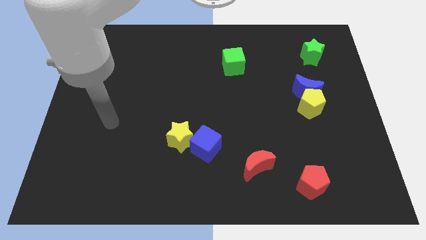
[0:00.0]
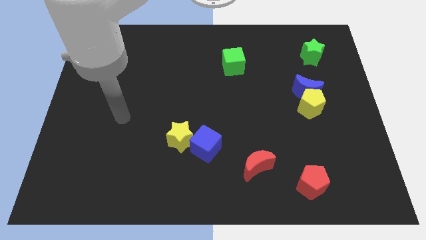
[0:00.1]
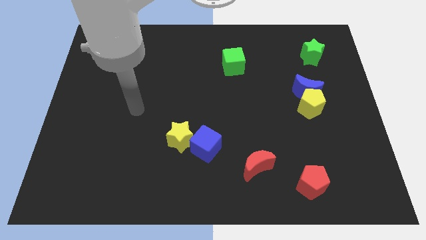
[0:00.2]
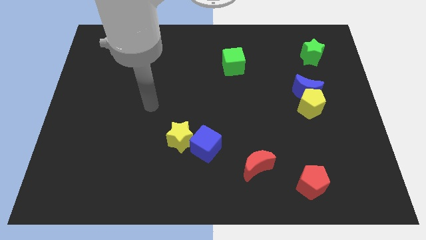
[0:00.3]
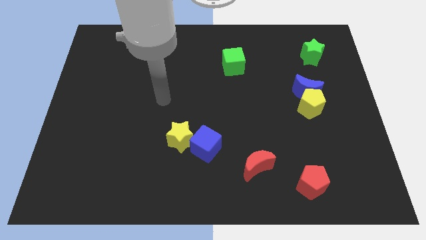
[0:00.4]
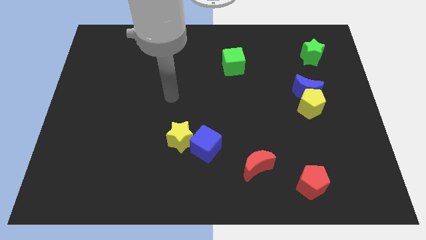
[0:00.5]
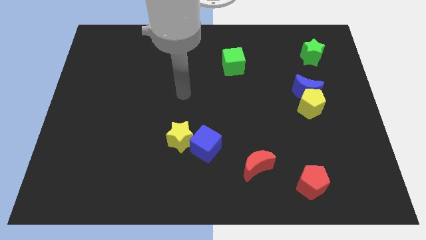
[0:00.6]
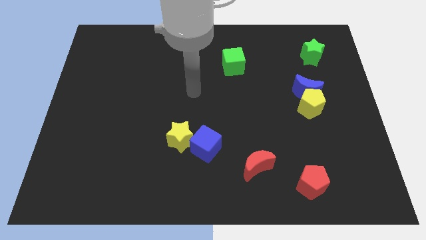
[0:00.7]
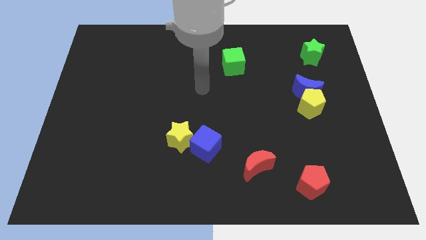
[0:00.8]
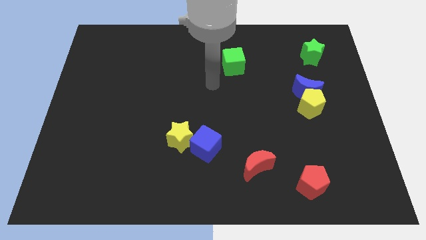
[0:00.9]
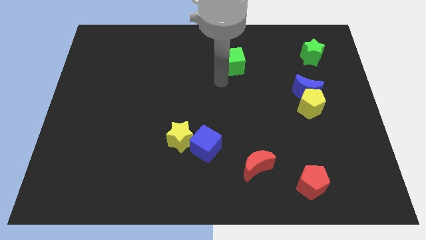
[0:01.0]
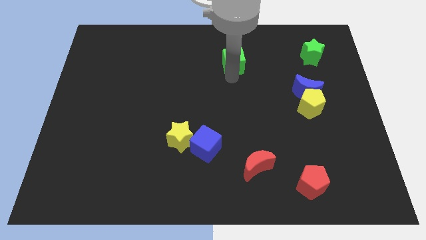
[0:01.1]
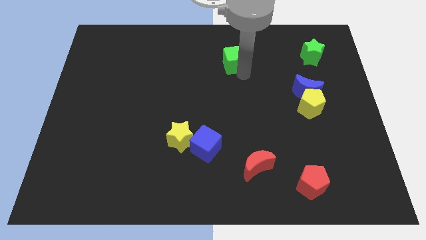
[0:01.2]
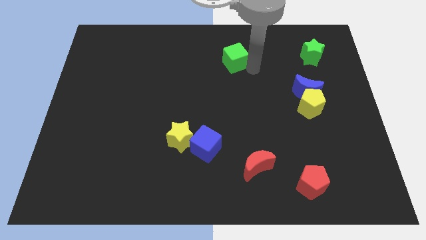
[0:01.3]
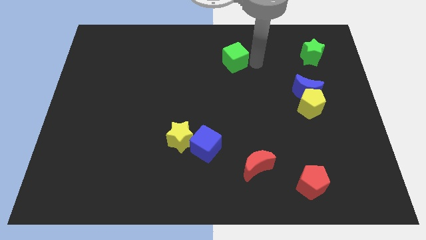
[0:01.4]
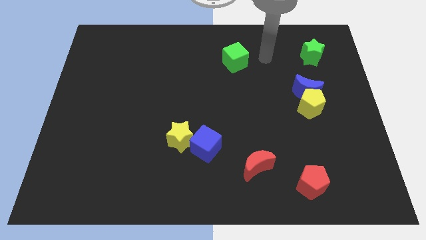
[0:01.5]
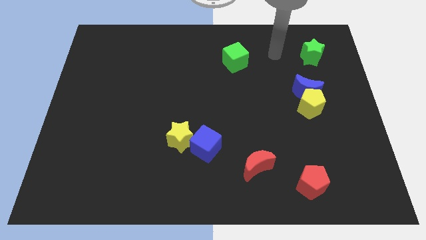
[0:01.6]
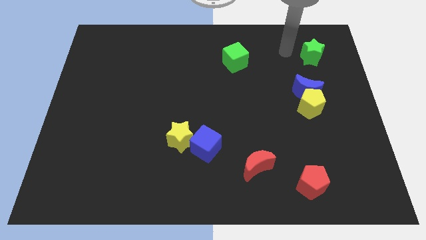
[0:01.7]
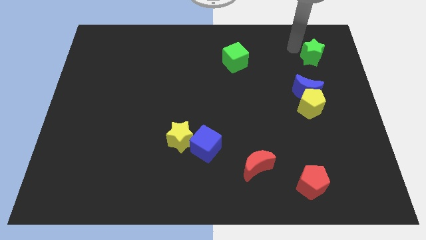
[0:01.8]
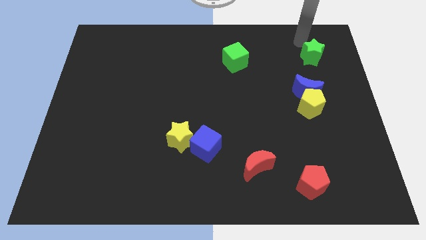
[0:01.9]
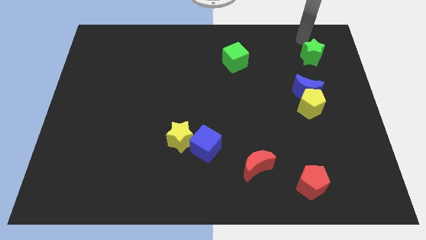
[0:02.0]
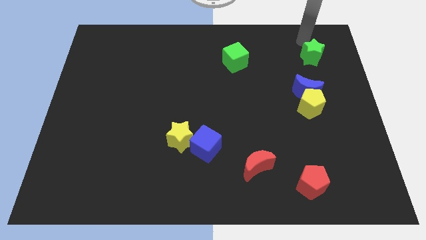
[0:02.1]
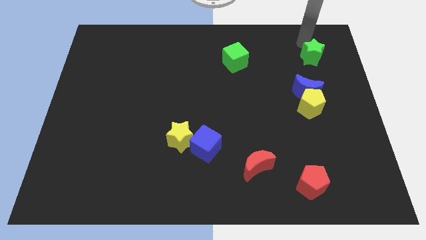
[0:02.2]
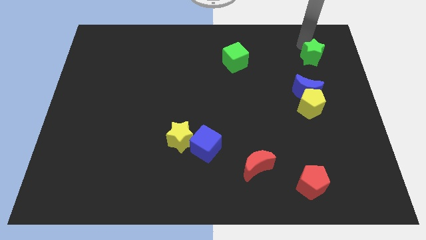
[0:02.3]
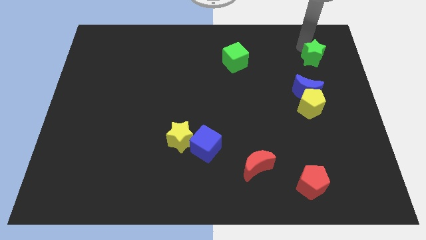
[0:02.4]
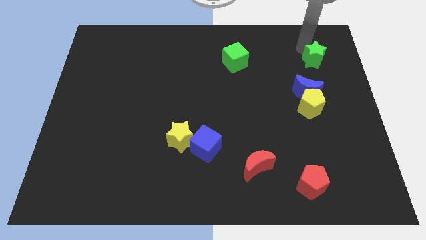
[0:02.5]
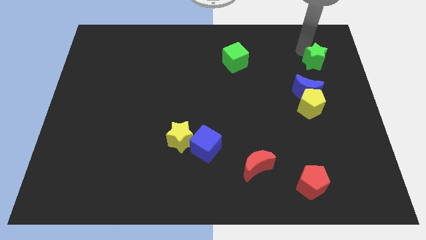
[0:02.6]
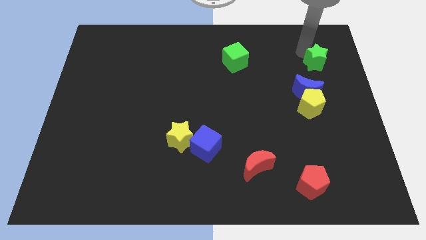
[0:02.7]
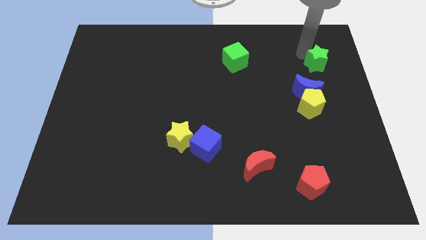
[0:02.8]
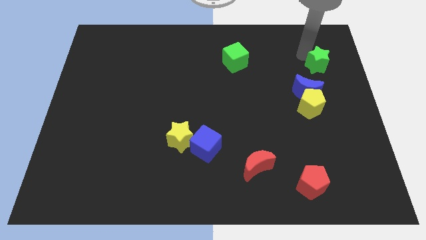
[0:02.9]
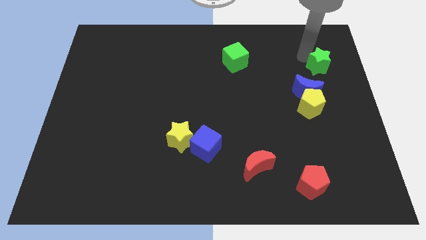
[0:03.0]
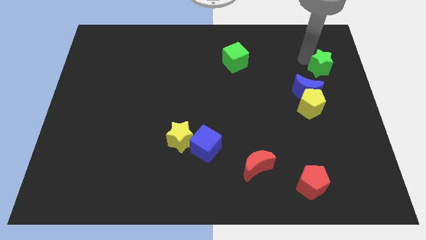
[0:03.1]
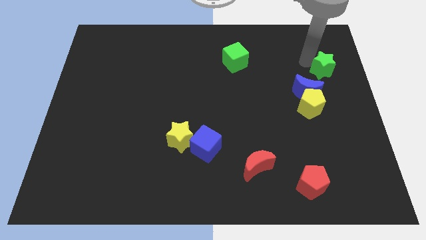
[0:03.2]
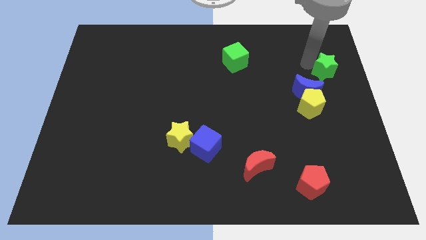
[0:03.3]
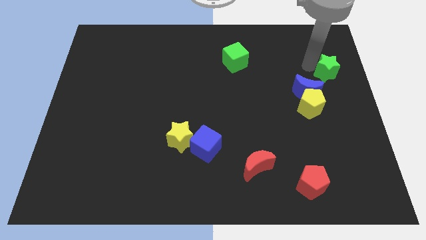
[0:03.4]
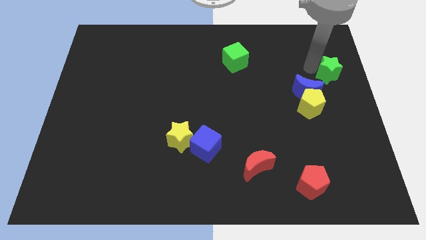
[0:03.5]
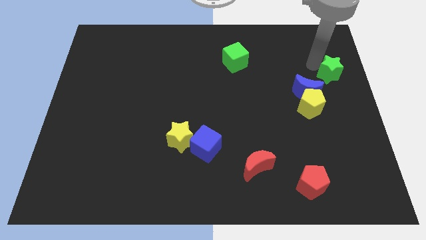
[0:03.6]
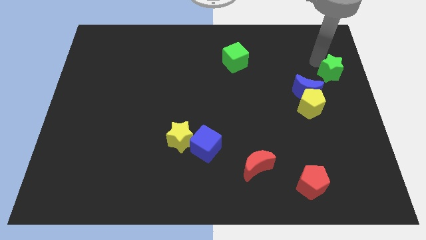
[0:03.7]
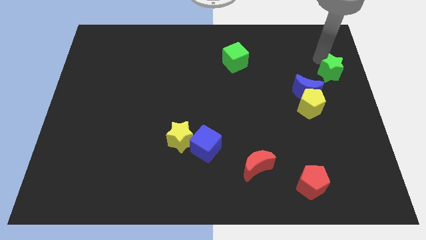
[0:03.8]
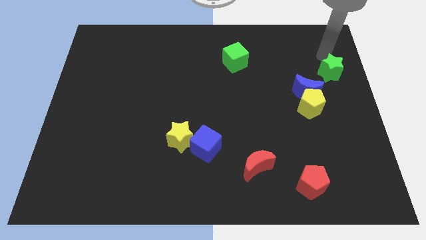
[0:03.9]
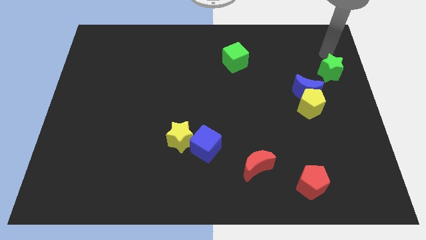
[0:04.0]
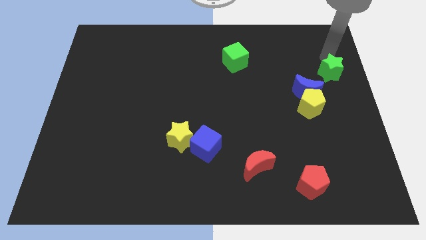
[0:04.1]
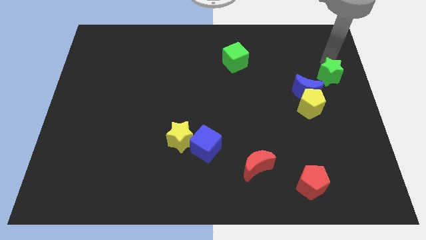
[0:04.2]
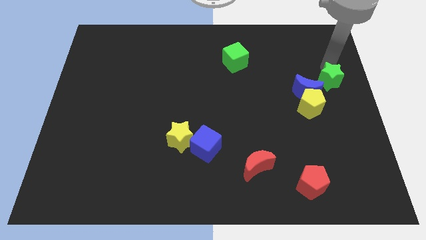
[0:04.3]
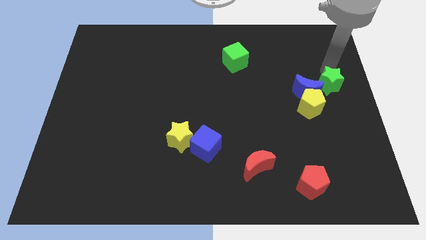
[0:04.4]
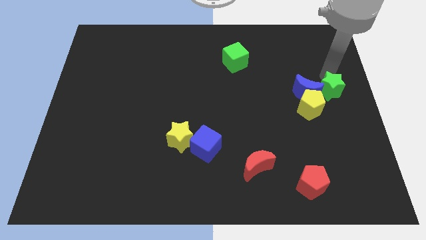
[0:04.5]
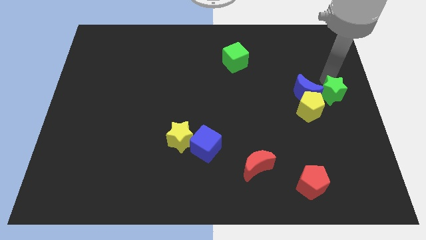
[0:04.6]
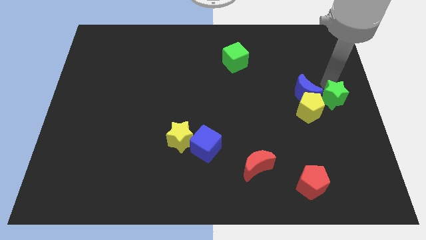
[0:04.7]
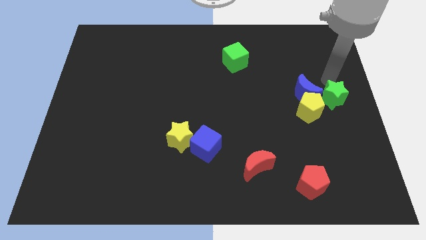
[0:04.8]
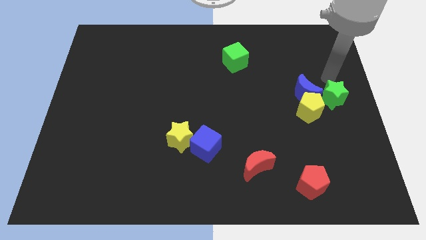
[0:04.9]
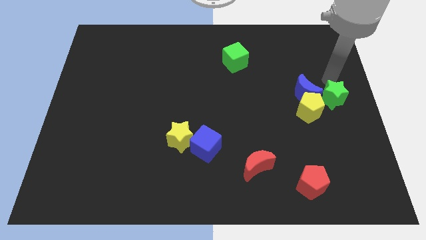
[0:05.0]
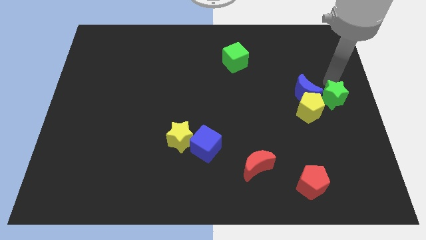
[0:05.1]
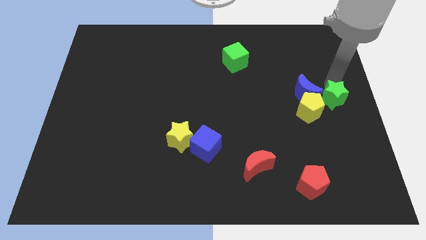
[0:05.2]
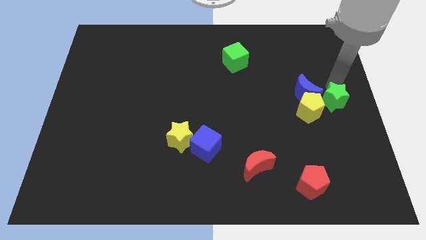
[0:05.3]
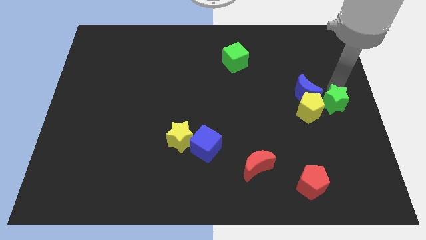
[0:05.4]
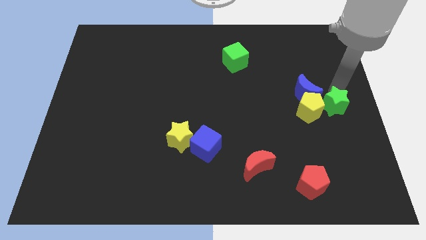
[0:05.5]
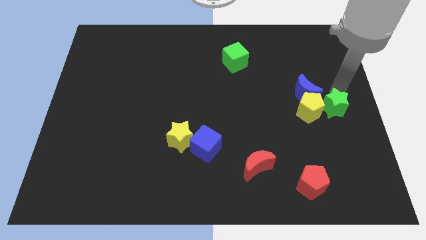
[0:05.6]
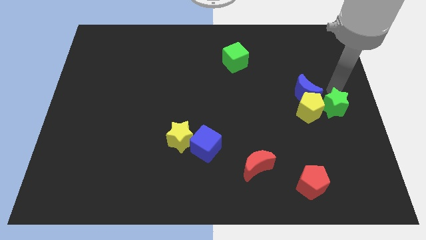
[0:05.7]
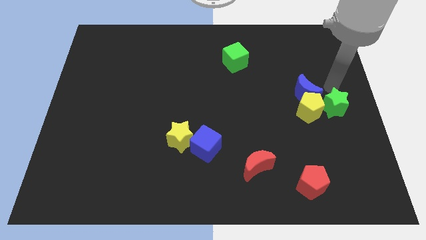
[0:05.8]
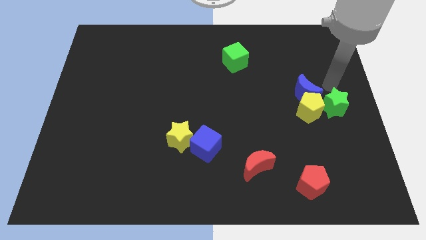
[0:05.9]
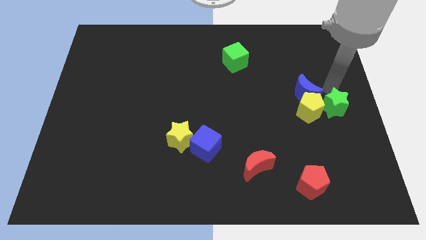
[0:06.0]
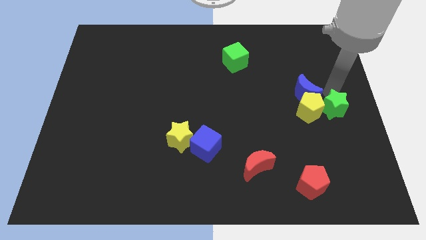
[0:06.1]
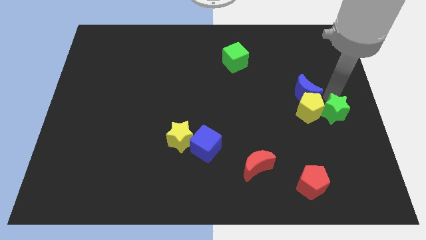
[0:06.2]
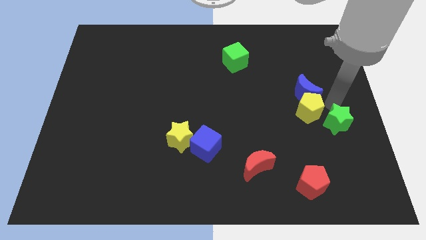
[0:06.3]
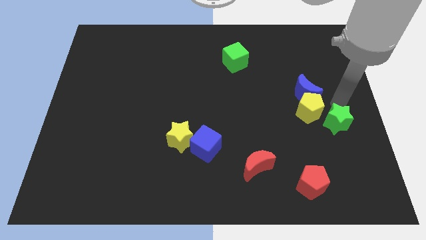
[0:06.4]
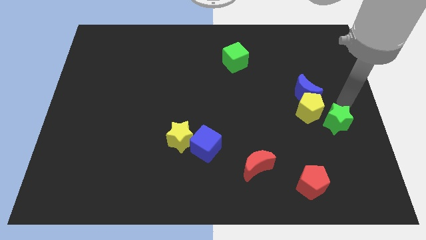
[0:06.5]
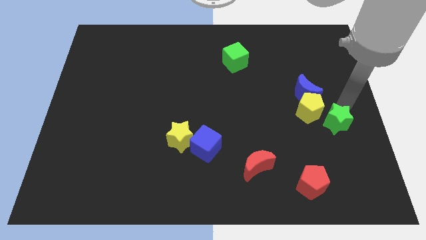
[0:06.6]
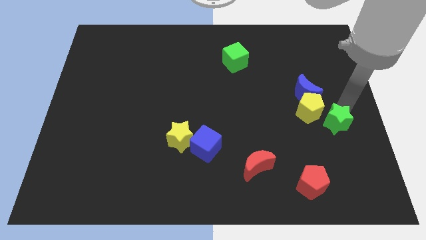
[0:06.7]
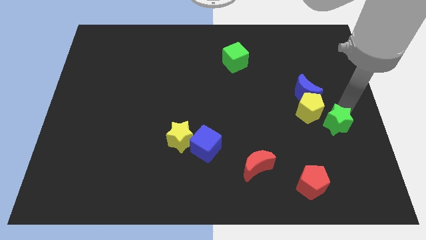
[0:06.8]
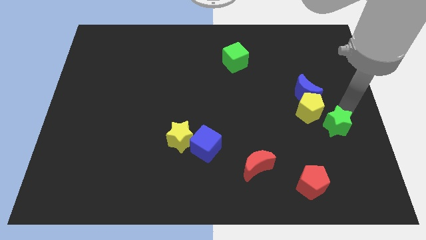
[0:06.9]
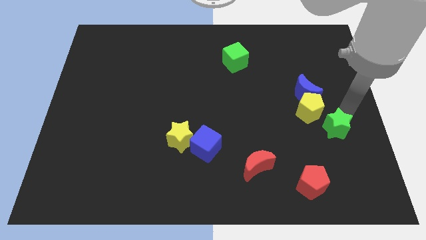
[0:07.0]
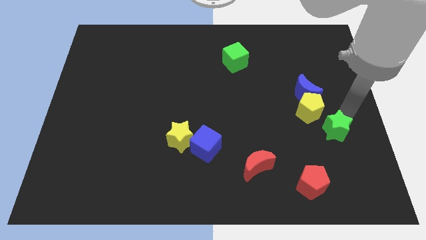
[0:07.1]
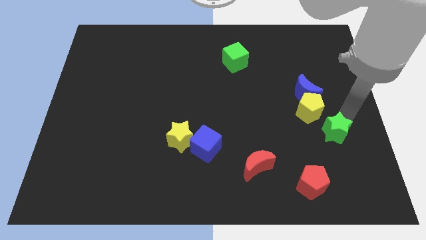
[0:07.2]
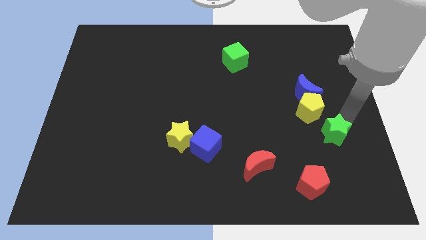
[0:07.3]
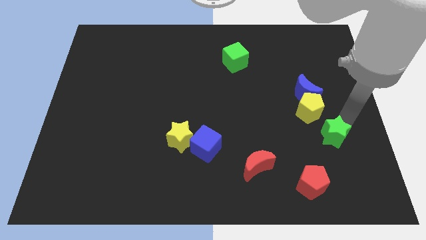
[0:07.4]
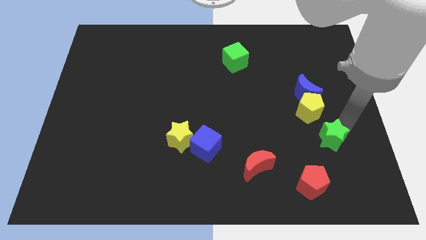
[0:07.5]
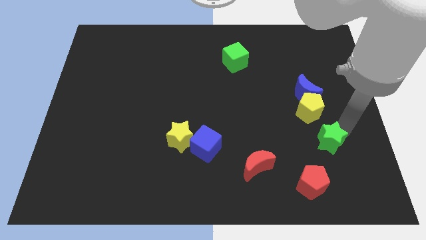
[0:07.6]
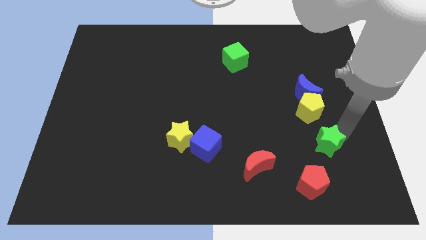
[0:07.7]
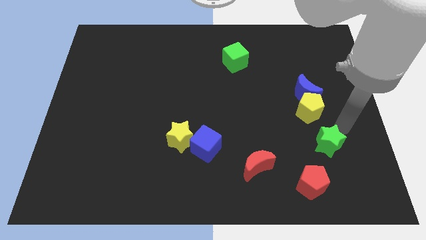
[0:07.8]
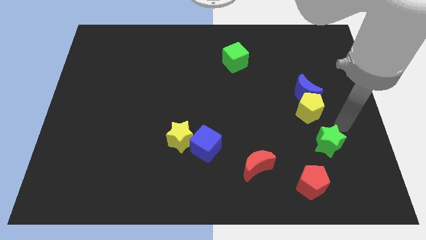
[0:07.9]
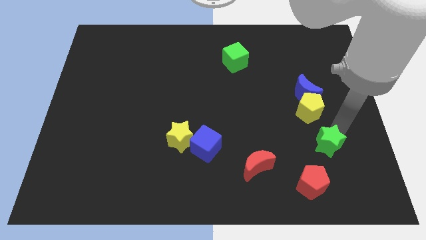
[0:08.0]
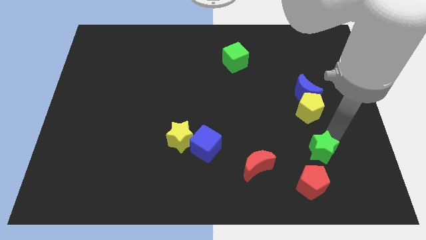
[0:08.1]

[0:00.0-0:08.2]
move the green star right of the red moon

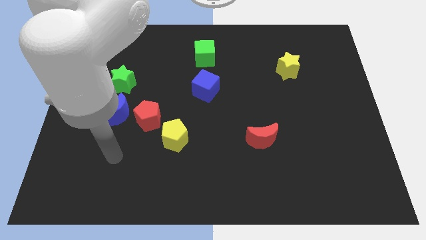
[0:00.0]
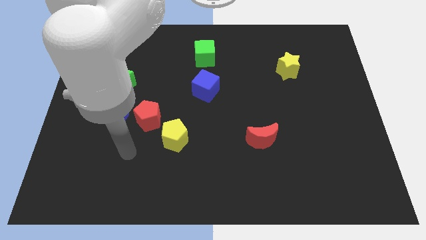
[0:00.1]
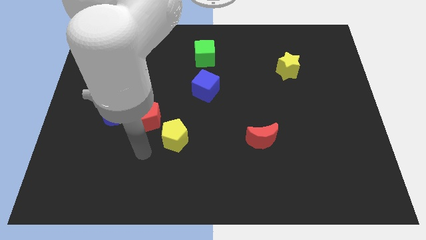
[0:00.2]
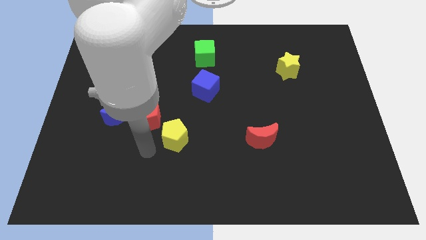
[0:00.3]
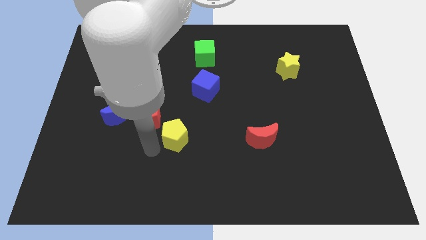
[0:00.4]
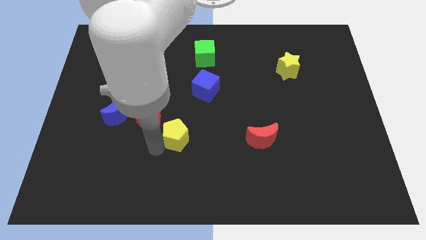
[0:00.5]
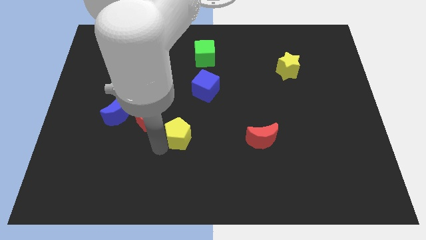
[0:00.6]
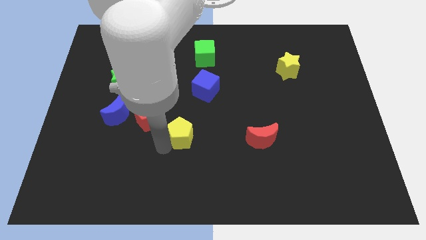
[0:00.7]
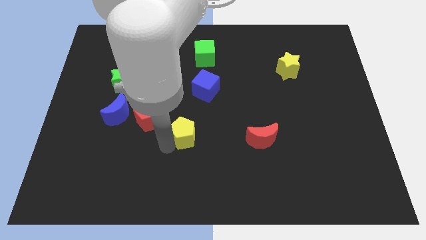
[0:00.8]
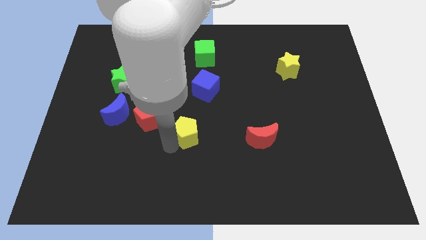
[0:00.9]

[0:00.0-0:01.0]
move the yellow pentagon to the bottom side of the blue cube
